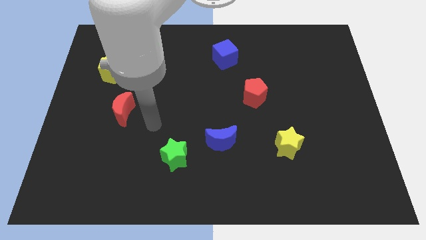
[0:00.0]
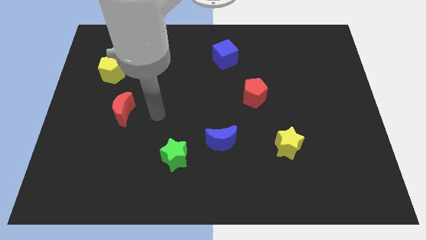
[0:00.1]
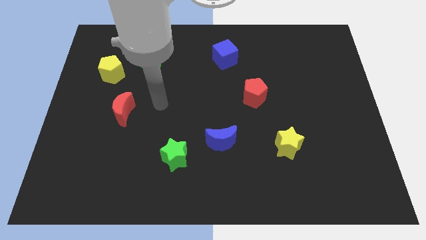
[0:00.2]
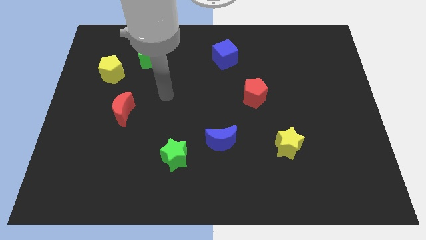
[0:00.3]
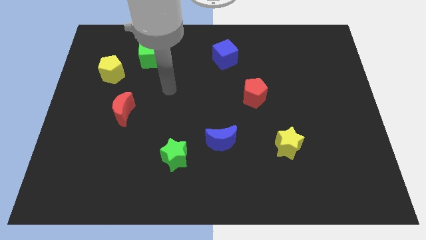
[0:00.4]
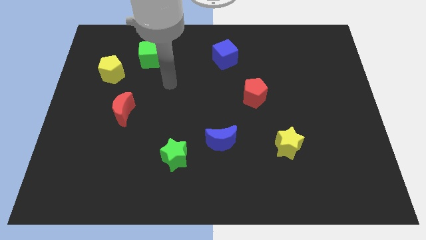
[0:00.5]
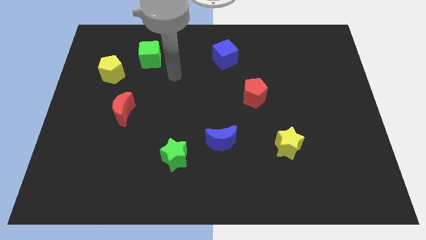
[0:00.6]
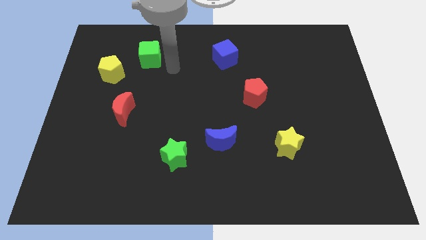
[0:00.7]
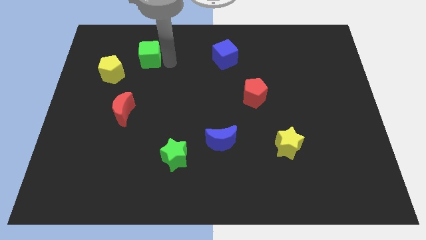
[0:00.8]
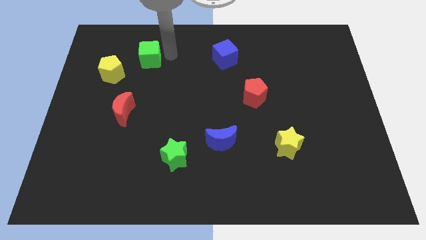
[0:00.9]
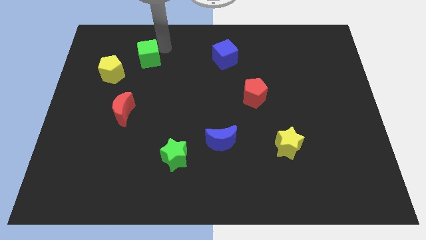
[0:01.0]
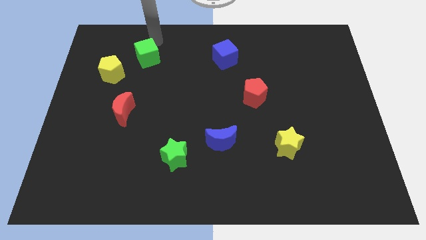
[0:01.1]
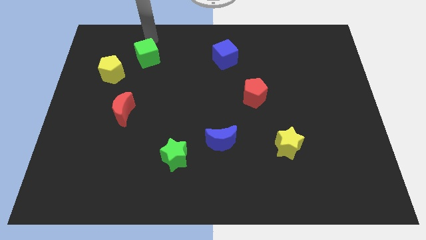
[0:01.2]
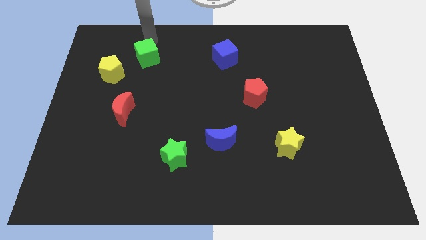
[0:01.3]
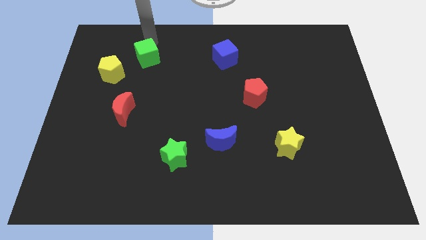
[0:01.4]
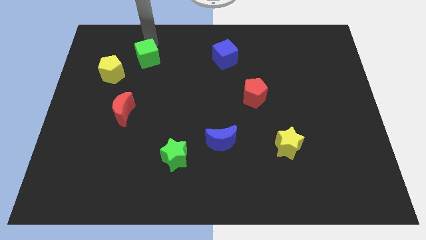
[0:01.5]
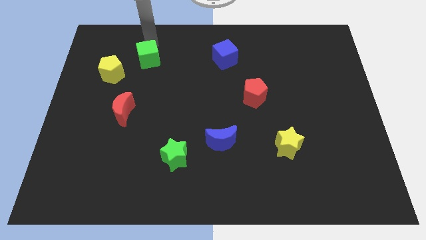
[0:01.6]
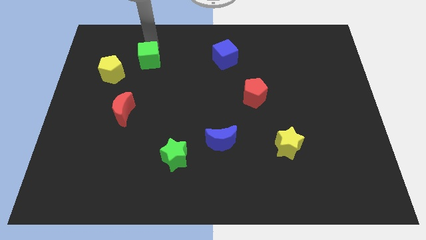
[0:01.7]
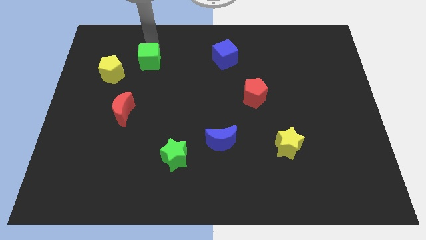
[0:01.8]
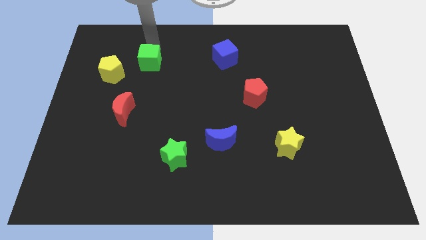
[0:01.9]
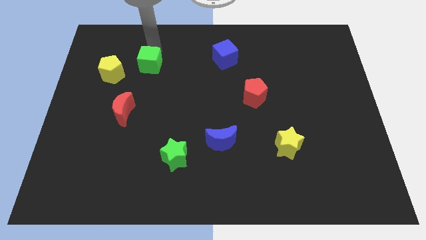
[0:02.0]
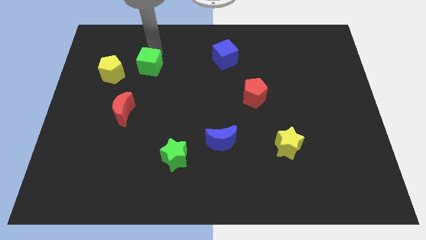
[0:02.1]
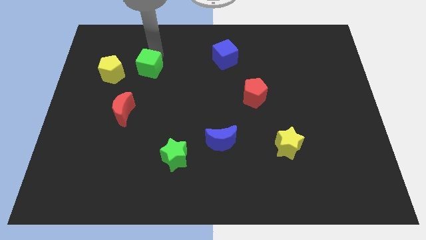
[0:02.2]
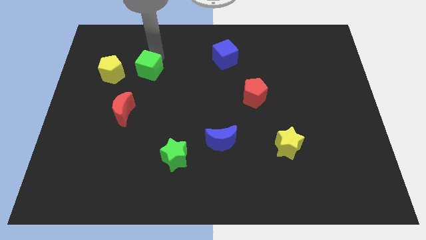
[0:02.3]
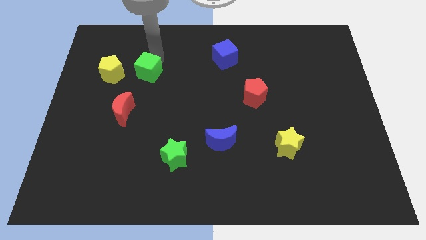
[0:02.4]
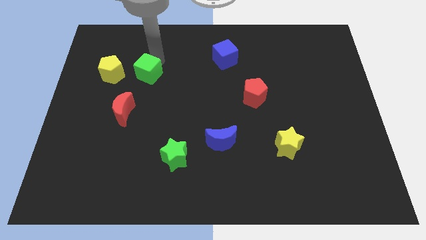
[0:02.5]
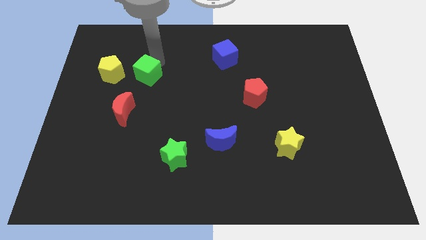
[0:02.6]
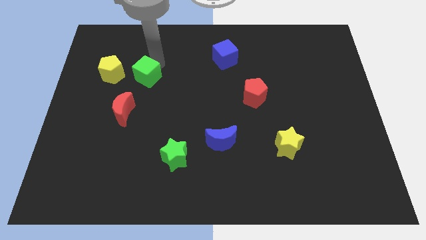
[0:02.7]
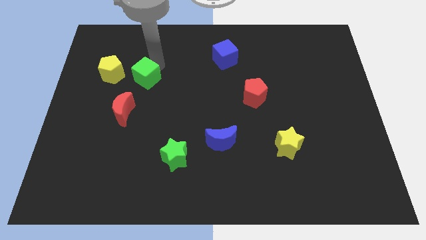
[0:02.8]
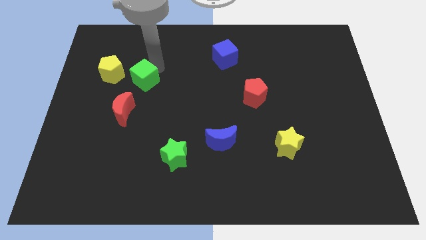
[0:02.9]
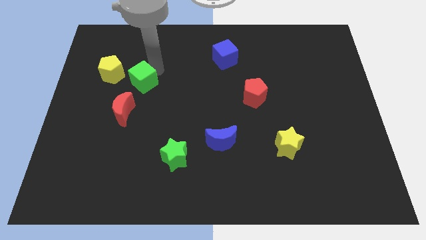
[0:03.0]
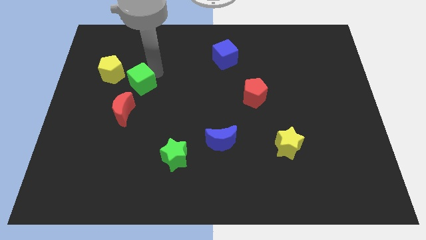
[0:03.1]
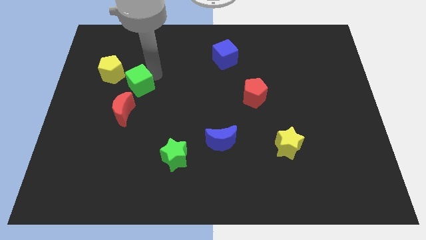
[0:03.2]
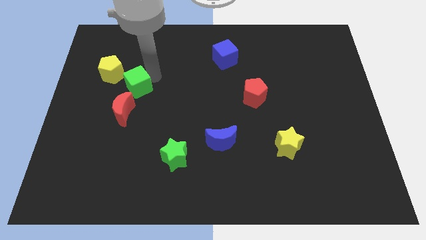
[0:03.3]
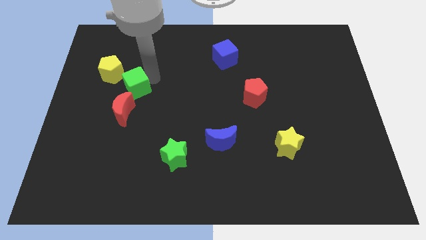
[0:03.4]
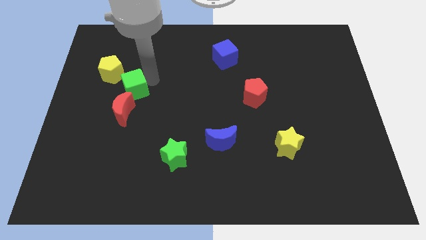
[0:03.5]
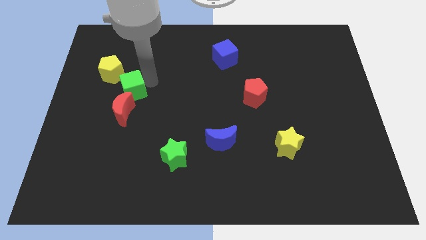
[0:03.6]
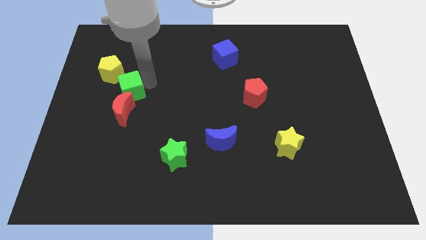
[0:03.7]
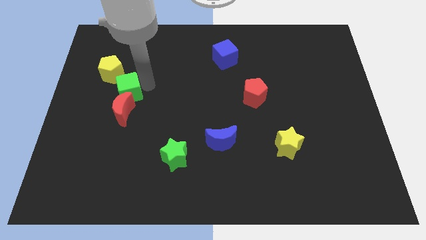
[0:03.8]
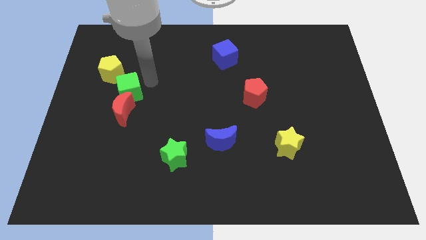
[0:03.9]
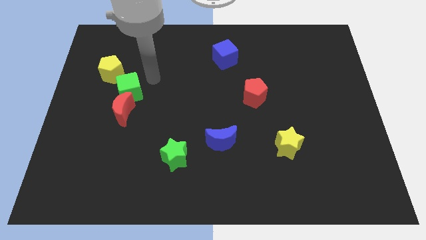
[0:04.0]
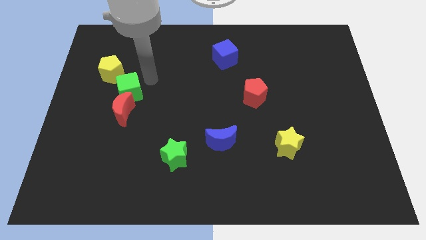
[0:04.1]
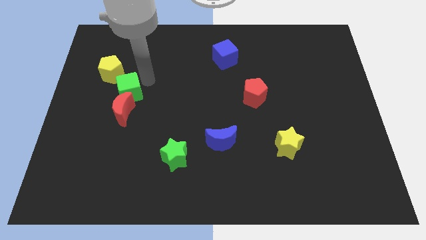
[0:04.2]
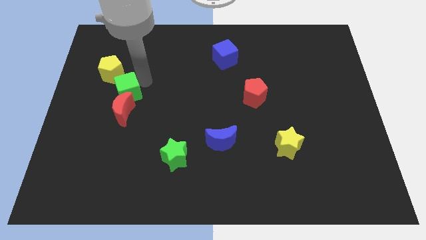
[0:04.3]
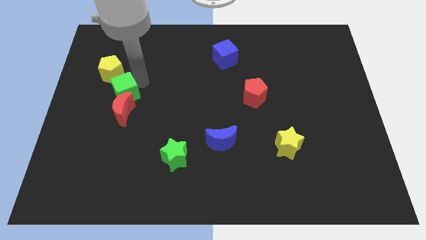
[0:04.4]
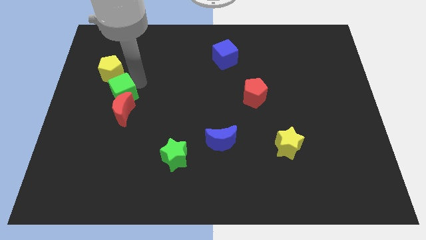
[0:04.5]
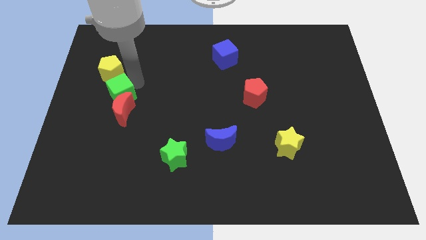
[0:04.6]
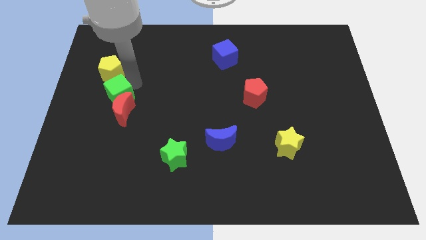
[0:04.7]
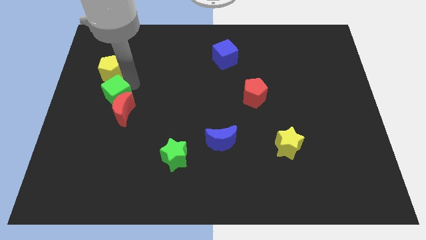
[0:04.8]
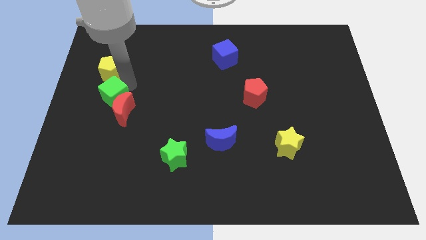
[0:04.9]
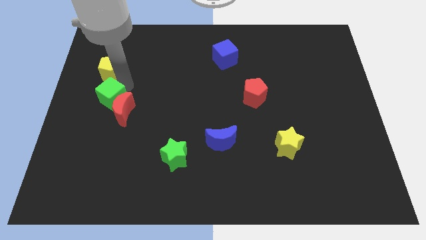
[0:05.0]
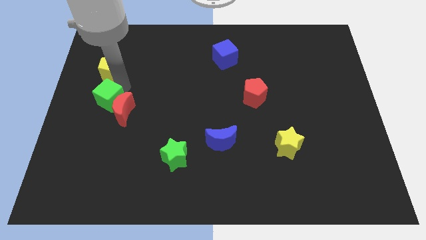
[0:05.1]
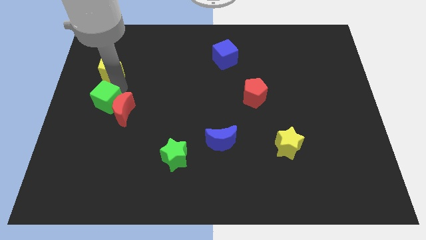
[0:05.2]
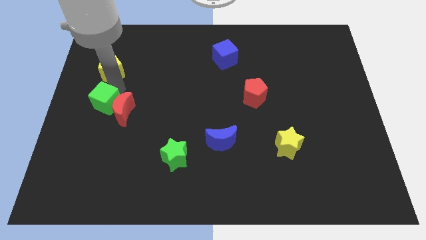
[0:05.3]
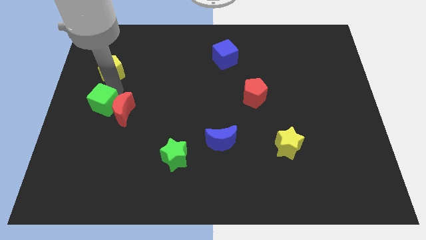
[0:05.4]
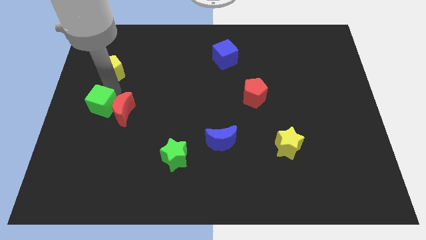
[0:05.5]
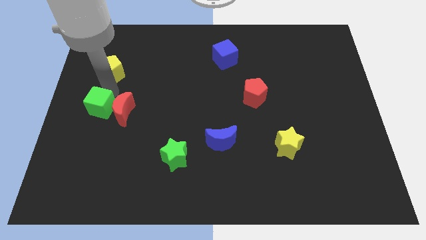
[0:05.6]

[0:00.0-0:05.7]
move the green cube to the bottom left of the red moon

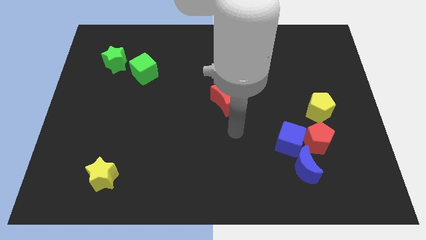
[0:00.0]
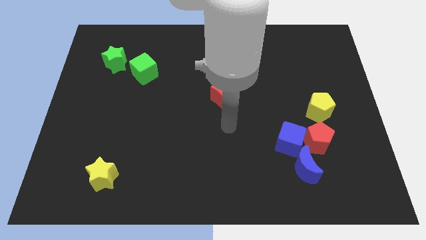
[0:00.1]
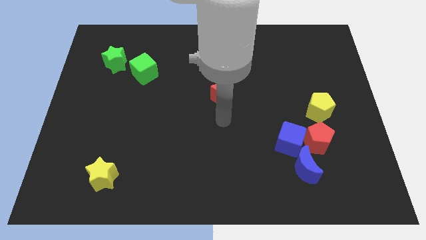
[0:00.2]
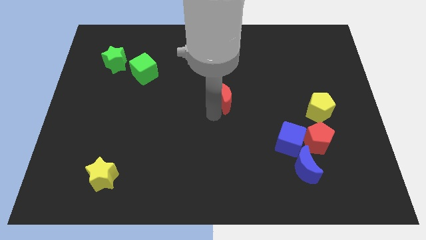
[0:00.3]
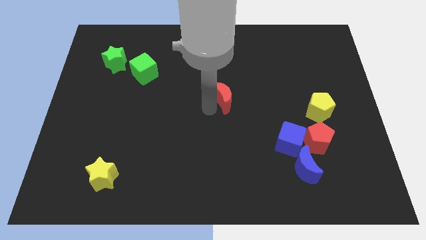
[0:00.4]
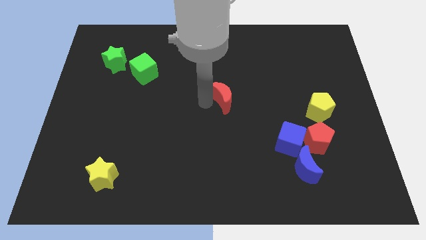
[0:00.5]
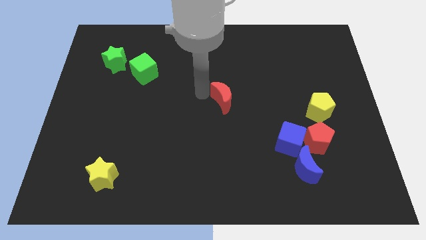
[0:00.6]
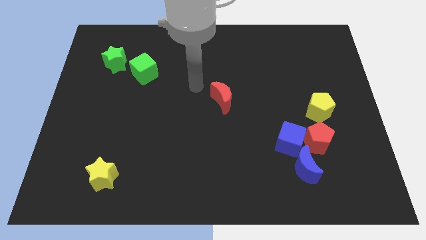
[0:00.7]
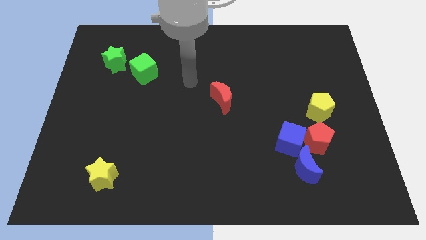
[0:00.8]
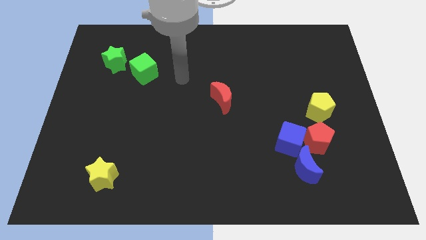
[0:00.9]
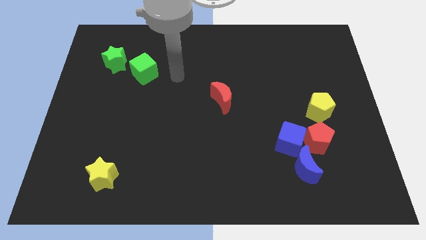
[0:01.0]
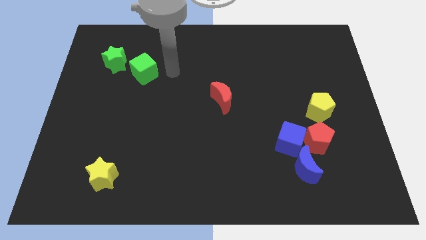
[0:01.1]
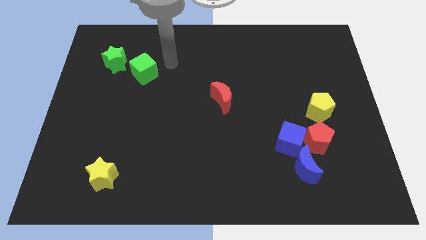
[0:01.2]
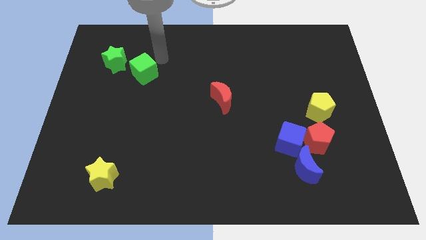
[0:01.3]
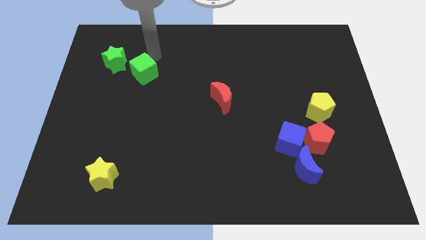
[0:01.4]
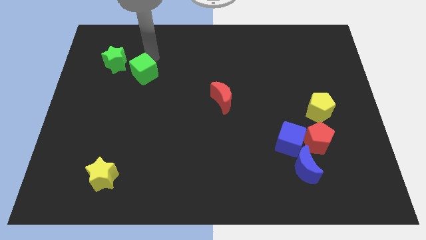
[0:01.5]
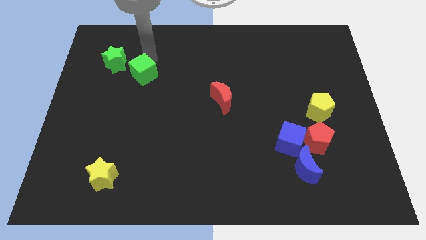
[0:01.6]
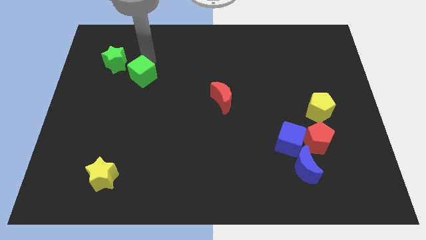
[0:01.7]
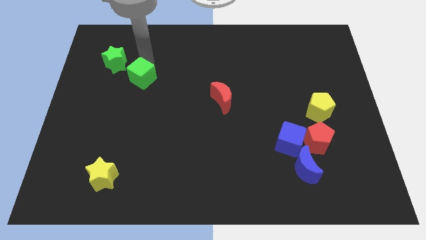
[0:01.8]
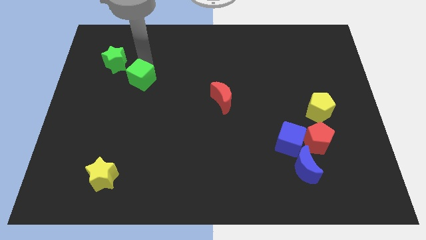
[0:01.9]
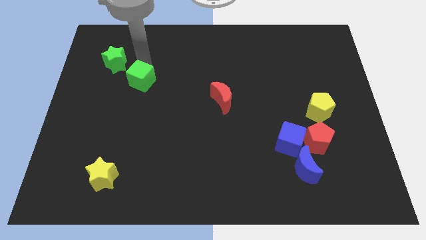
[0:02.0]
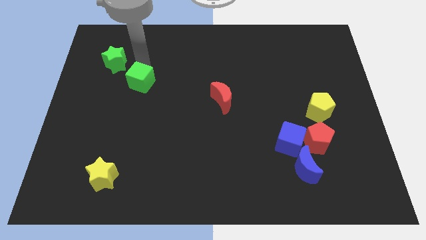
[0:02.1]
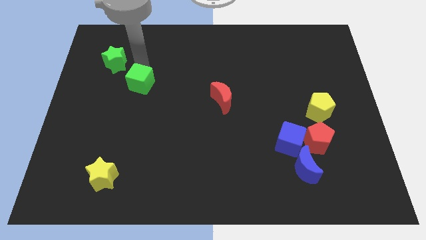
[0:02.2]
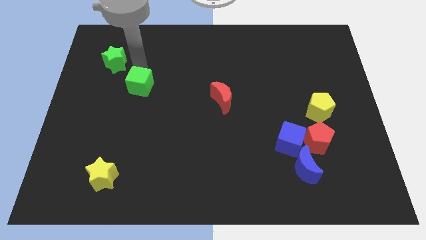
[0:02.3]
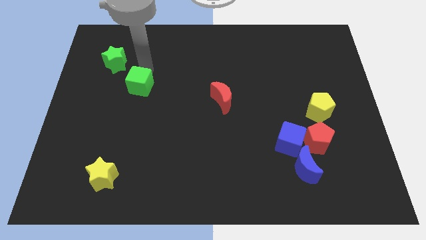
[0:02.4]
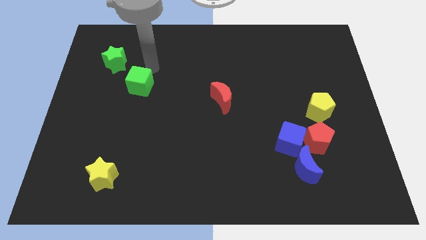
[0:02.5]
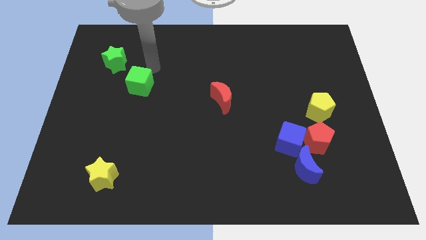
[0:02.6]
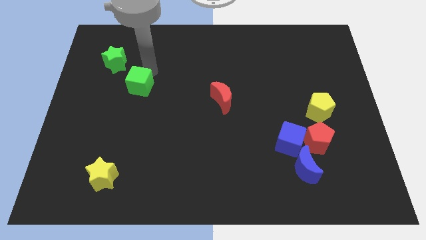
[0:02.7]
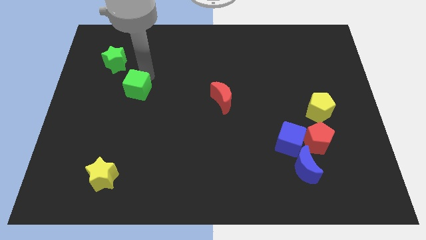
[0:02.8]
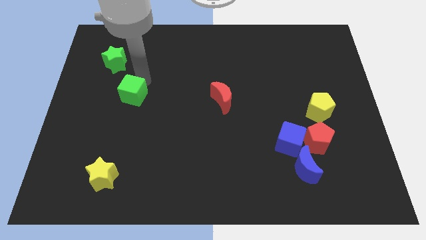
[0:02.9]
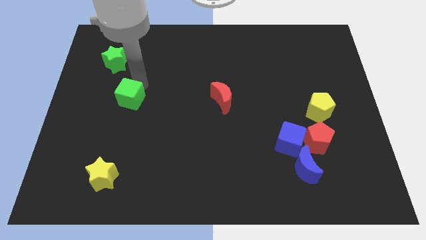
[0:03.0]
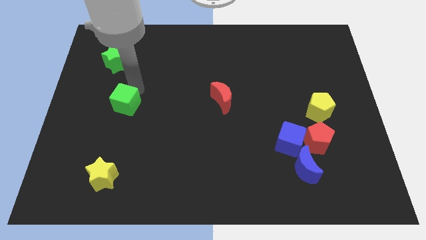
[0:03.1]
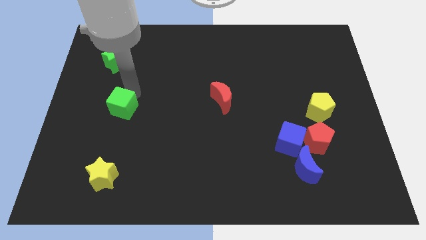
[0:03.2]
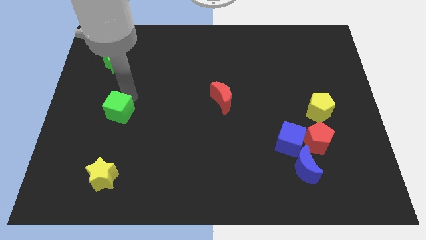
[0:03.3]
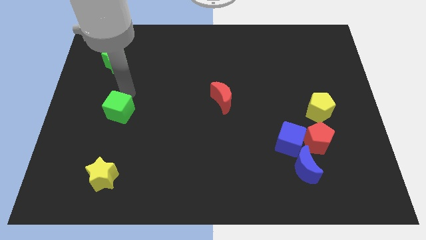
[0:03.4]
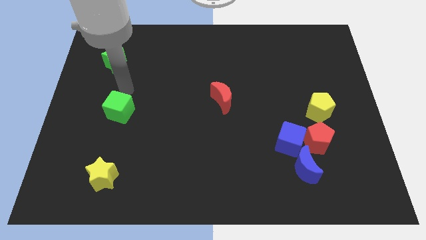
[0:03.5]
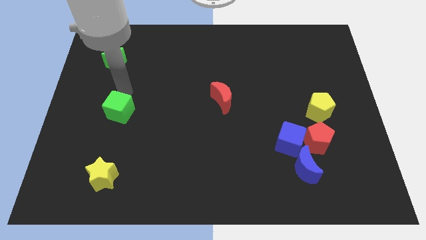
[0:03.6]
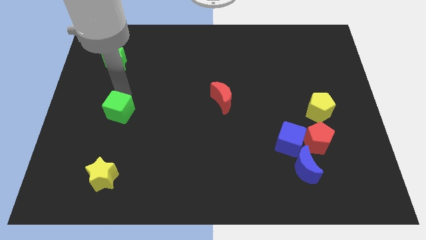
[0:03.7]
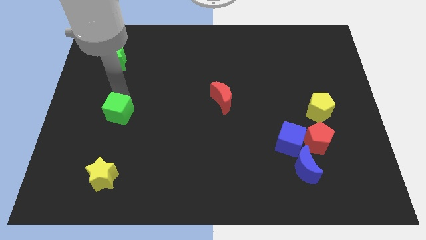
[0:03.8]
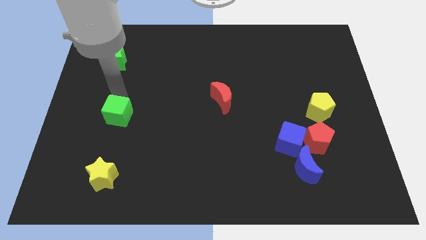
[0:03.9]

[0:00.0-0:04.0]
push the green cube to the top side of the yellow star
